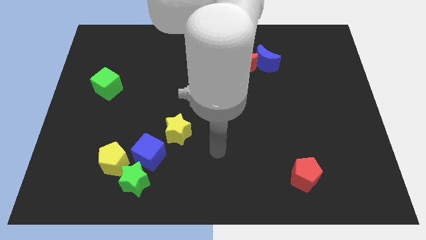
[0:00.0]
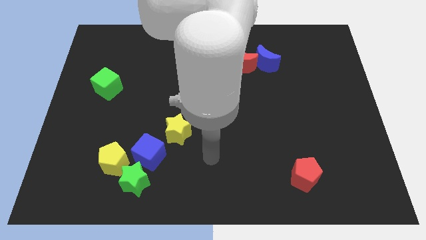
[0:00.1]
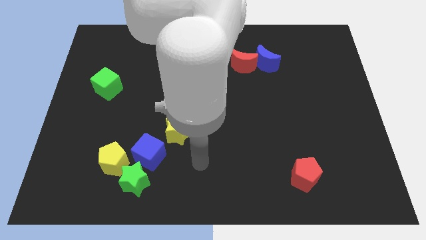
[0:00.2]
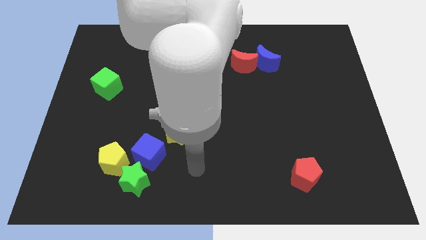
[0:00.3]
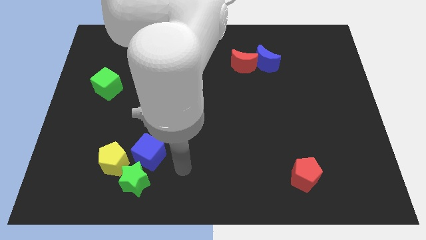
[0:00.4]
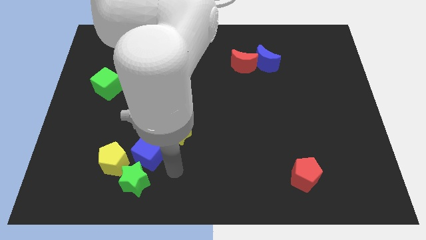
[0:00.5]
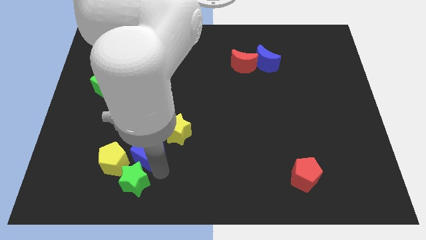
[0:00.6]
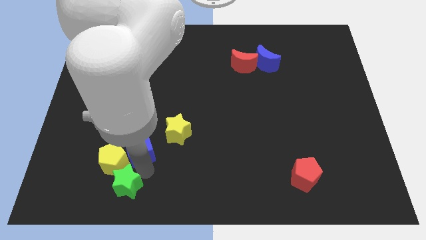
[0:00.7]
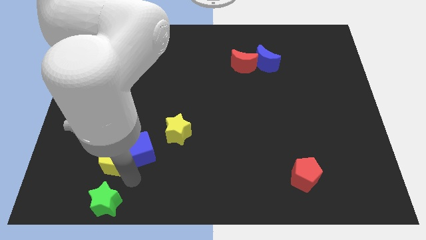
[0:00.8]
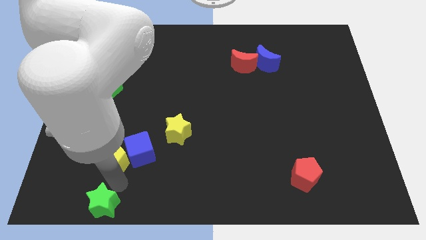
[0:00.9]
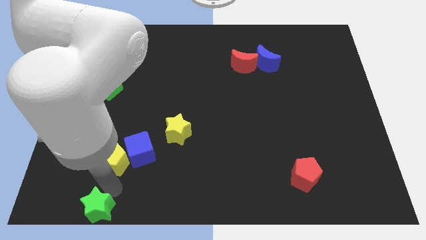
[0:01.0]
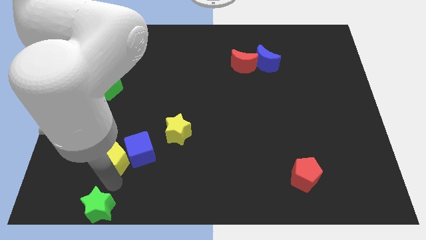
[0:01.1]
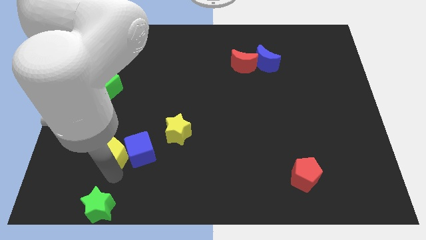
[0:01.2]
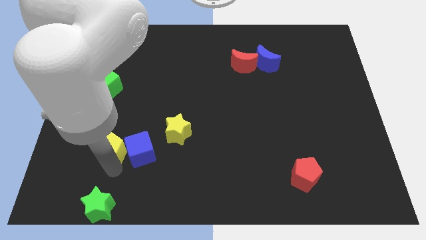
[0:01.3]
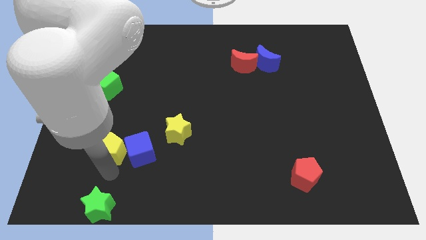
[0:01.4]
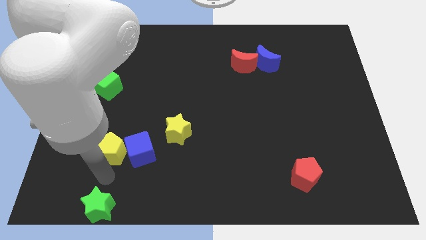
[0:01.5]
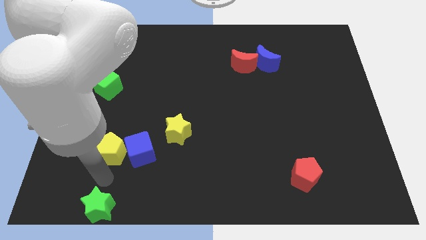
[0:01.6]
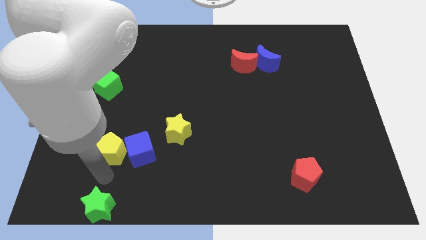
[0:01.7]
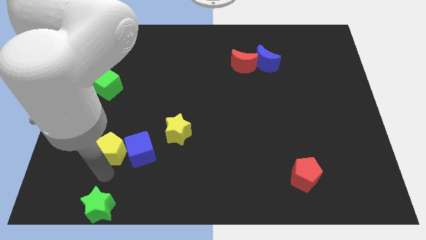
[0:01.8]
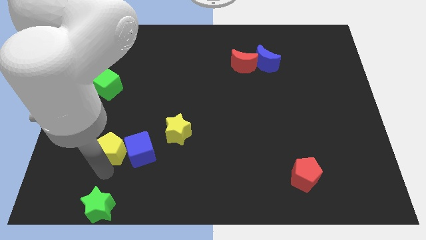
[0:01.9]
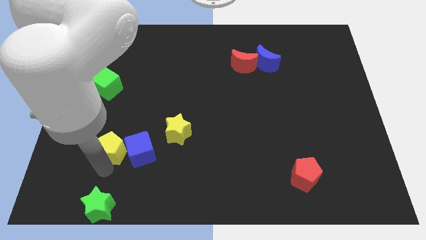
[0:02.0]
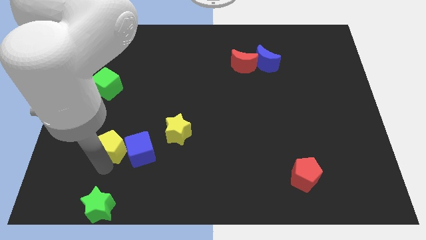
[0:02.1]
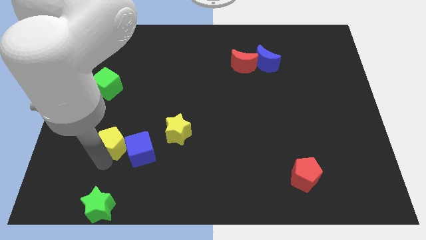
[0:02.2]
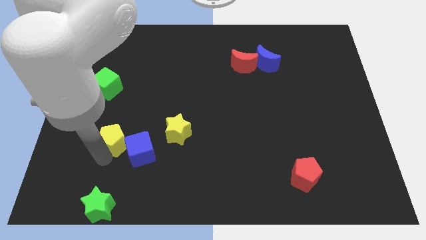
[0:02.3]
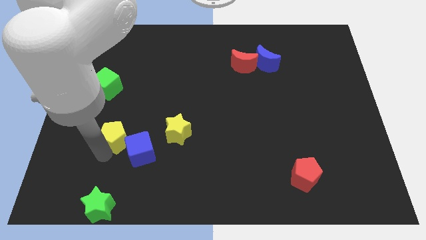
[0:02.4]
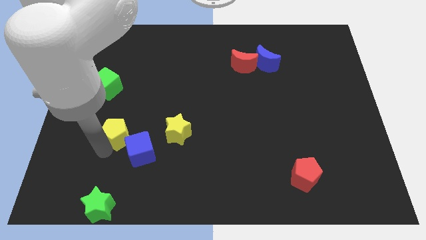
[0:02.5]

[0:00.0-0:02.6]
slightly push the yellow pentagon up

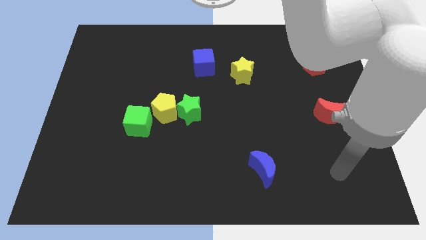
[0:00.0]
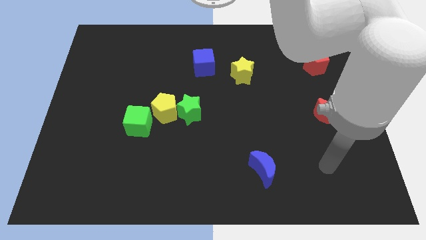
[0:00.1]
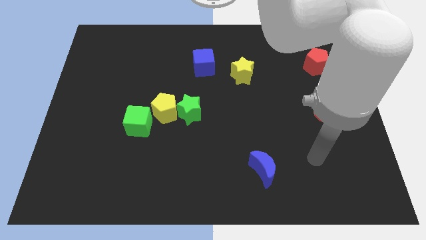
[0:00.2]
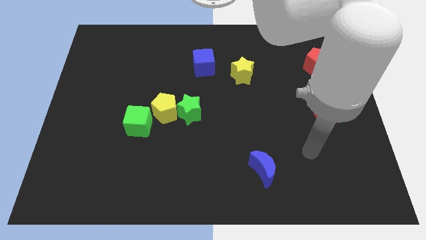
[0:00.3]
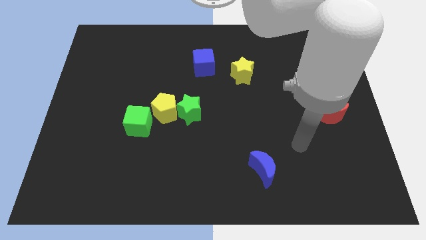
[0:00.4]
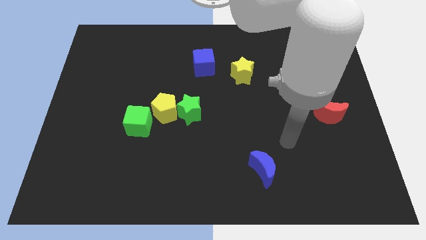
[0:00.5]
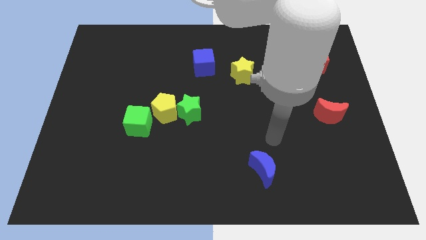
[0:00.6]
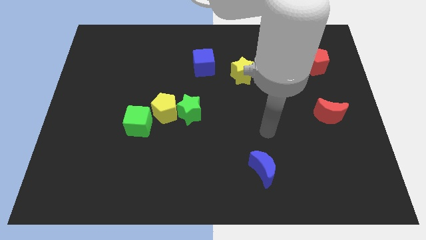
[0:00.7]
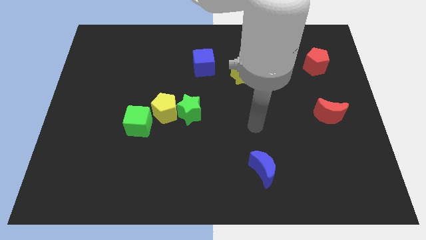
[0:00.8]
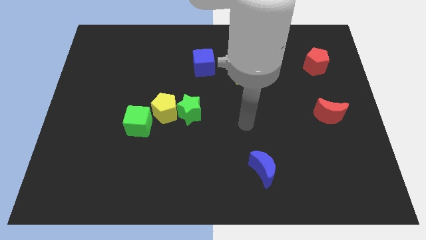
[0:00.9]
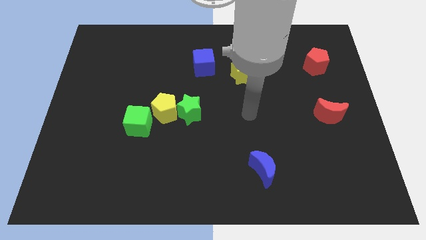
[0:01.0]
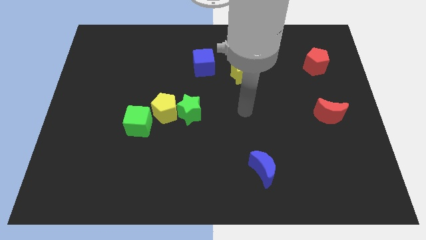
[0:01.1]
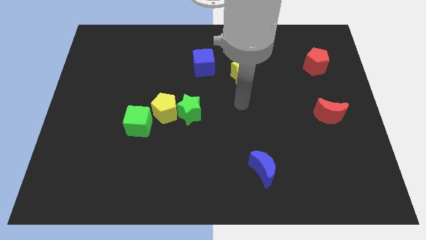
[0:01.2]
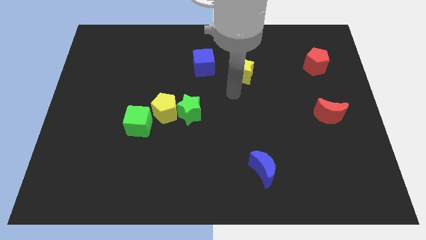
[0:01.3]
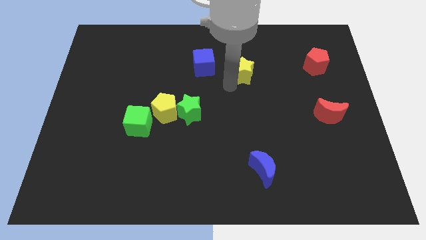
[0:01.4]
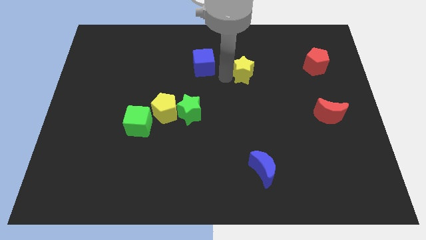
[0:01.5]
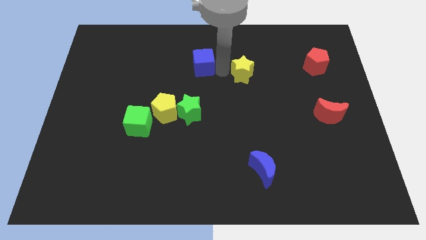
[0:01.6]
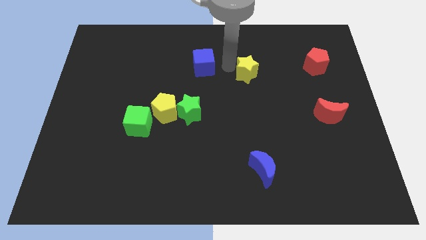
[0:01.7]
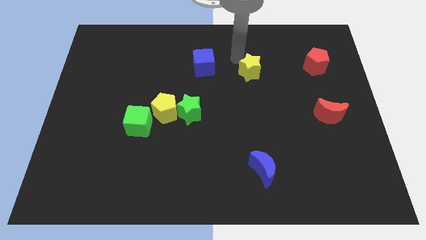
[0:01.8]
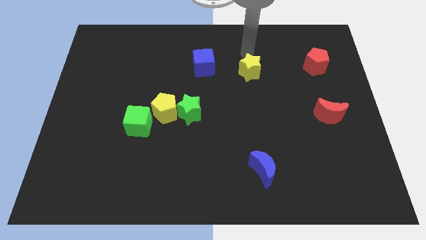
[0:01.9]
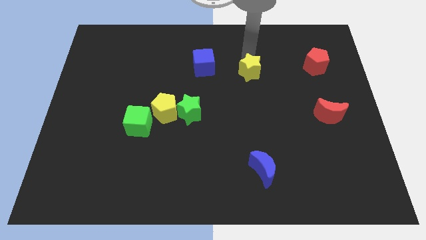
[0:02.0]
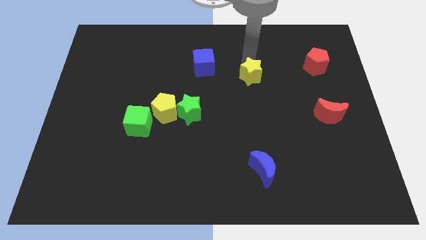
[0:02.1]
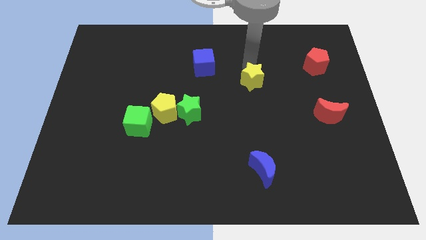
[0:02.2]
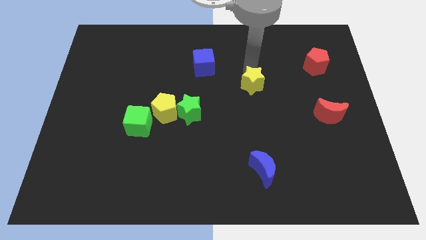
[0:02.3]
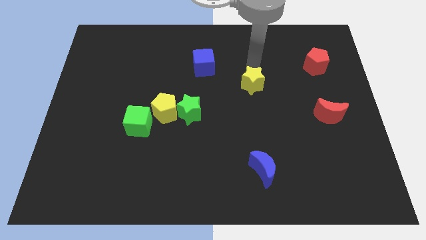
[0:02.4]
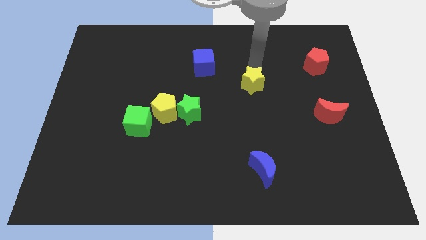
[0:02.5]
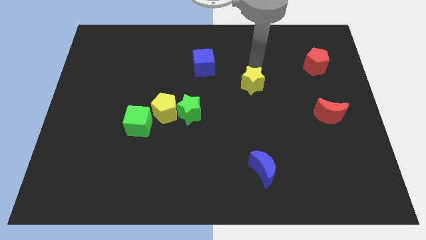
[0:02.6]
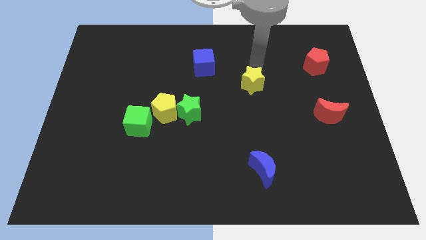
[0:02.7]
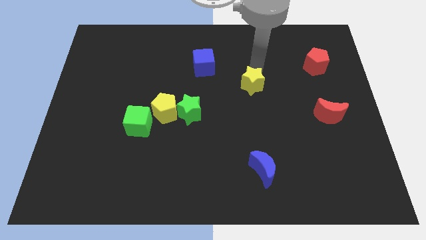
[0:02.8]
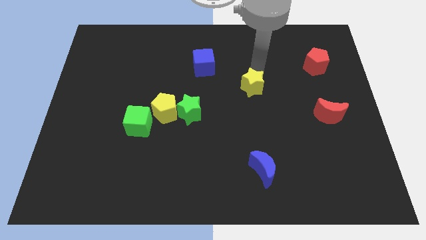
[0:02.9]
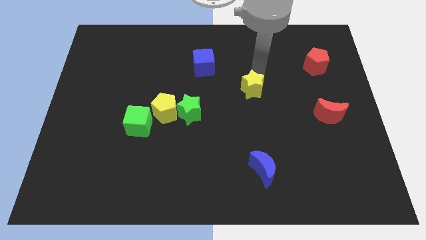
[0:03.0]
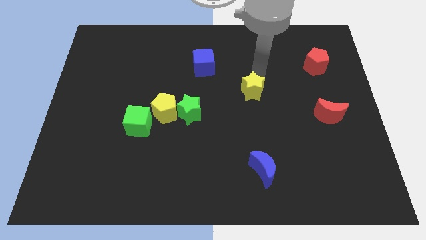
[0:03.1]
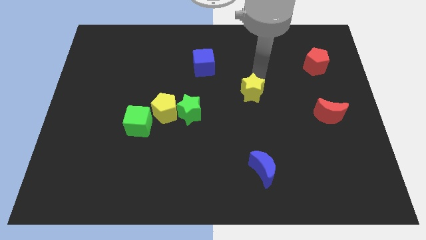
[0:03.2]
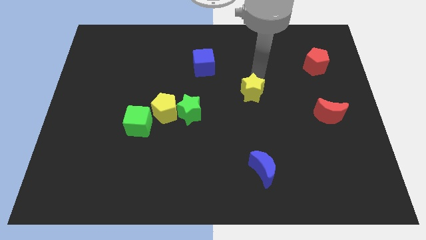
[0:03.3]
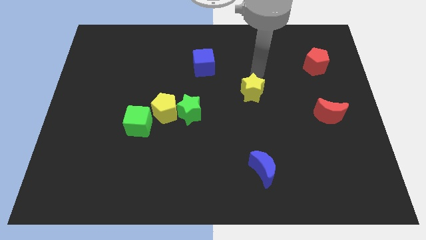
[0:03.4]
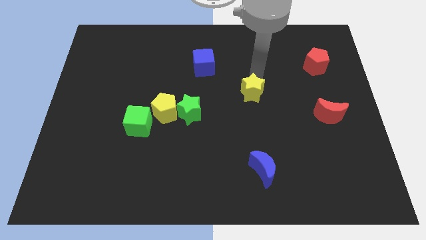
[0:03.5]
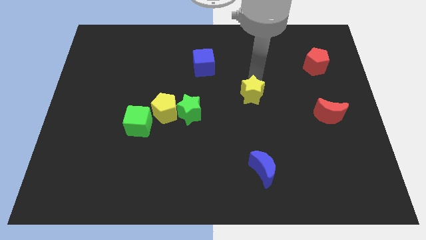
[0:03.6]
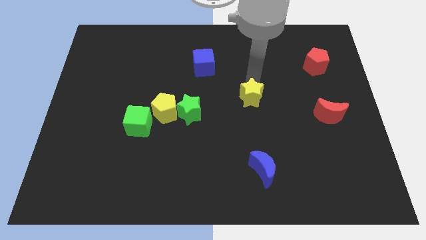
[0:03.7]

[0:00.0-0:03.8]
slide the yellow star a little downwards

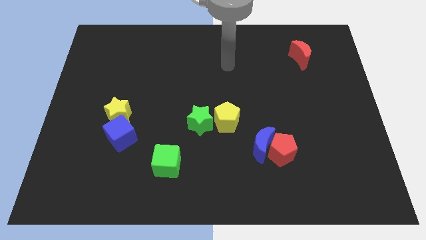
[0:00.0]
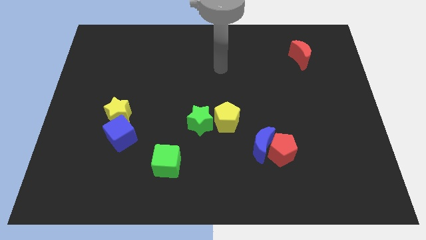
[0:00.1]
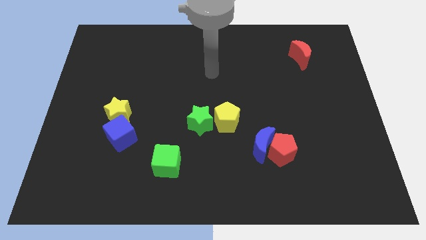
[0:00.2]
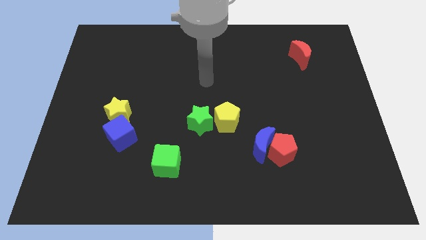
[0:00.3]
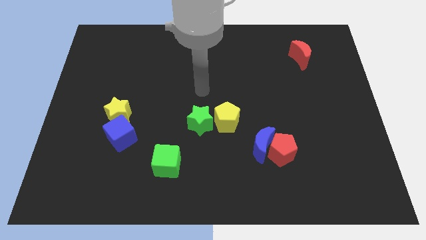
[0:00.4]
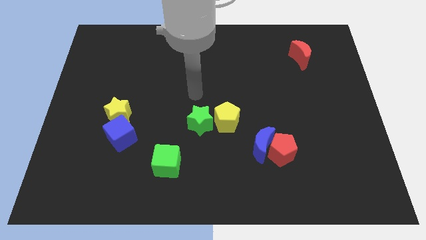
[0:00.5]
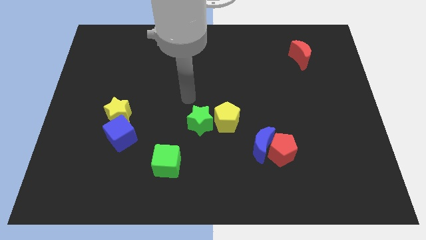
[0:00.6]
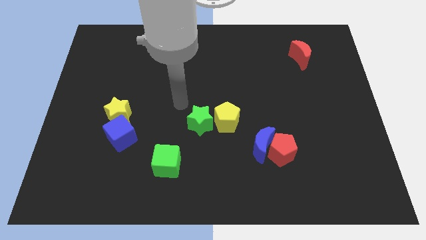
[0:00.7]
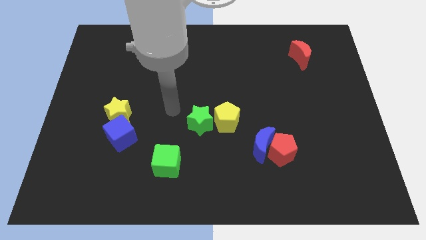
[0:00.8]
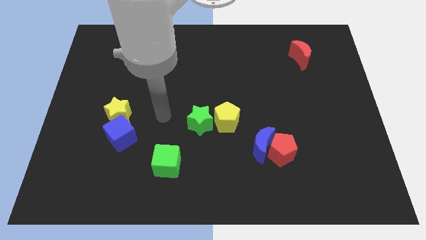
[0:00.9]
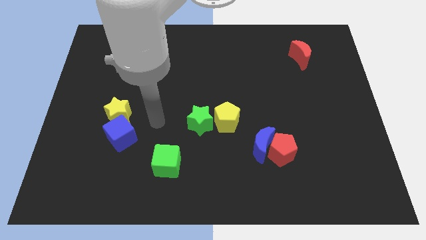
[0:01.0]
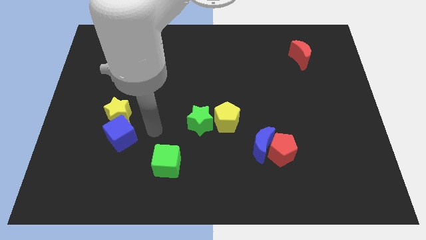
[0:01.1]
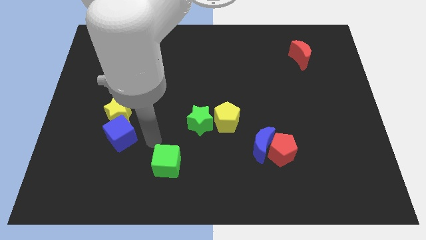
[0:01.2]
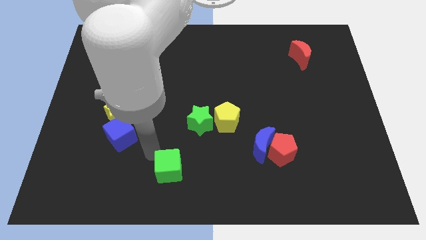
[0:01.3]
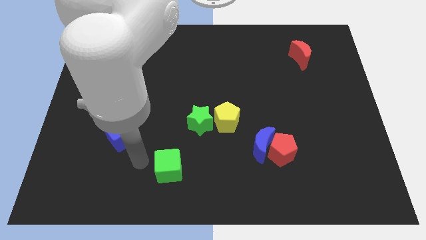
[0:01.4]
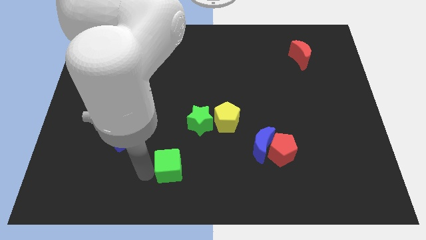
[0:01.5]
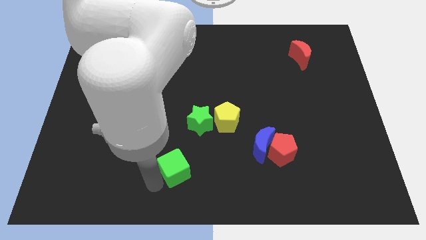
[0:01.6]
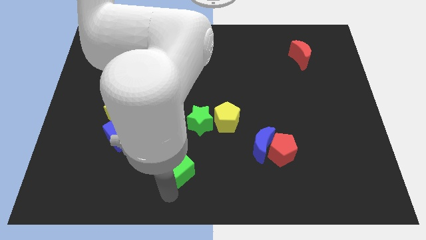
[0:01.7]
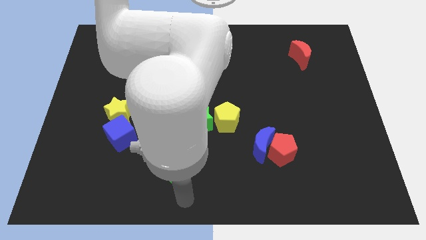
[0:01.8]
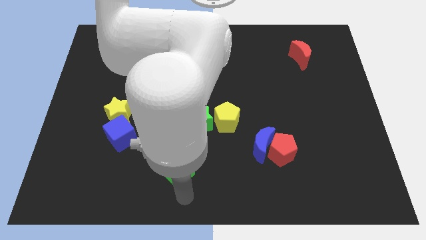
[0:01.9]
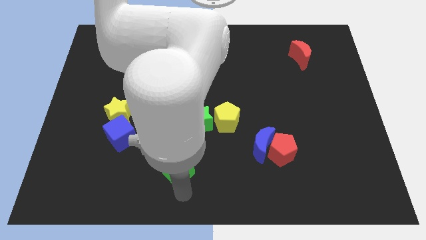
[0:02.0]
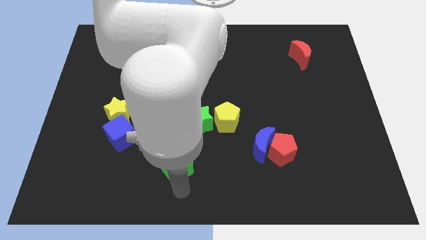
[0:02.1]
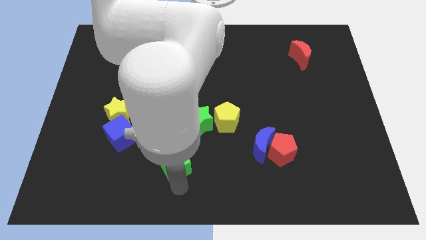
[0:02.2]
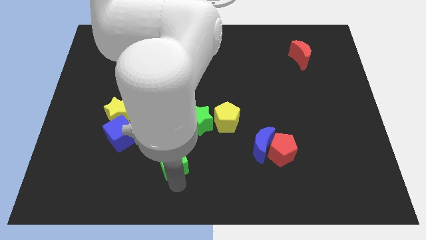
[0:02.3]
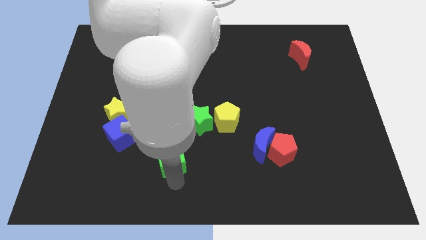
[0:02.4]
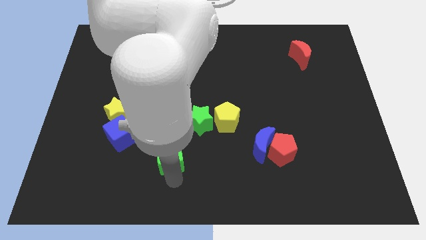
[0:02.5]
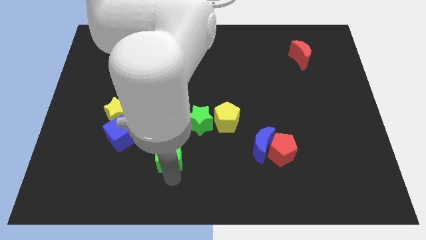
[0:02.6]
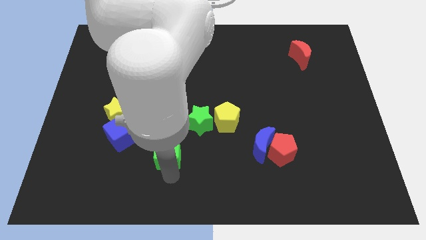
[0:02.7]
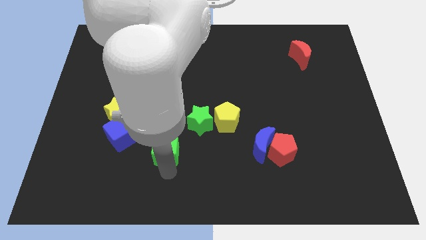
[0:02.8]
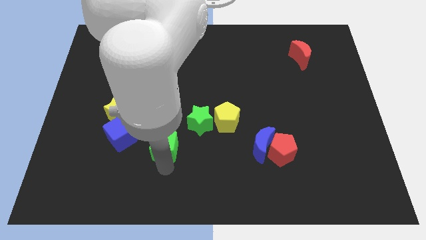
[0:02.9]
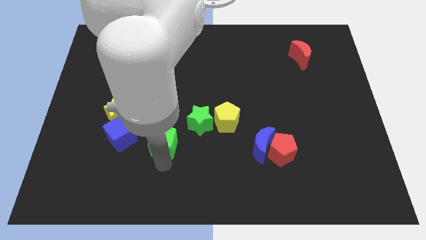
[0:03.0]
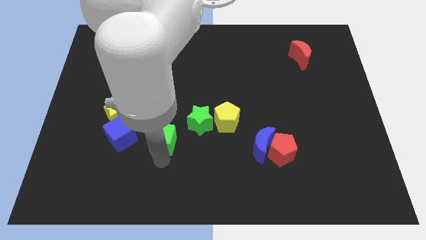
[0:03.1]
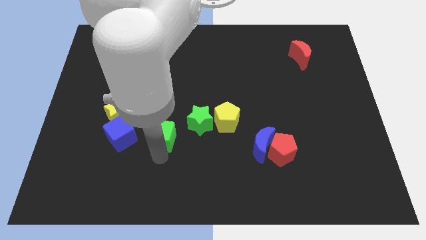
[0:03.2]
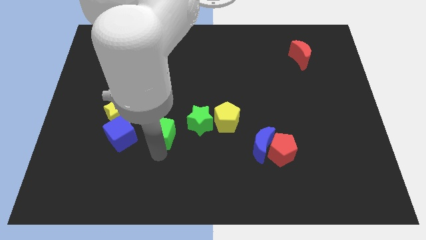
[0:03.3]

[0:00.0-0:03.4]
move the green cube somewhat upwards
